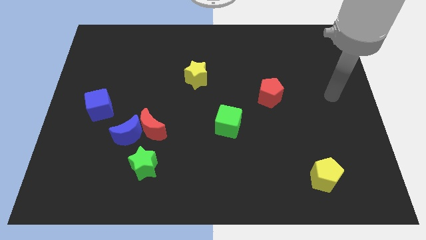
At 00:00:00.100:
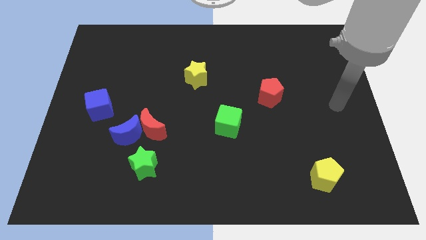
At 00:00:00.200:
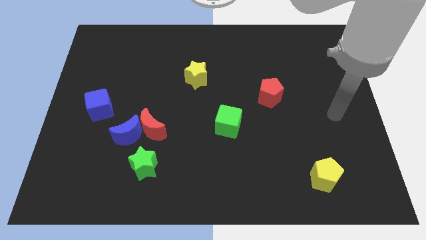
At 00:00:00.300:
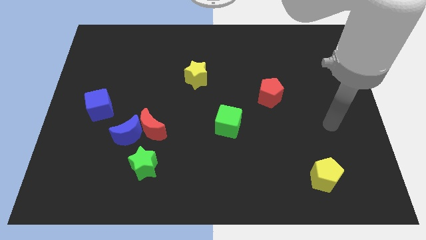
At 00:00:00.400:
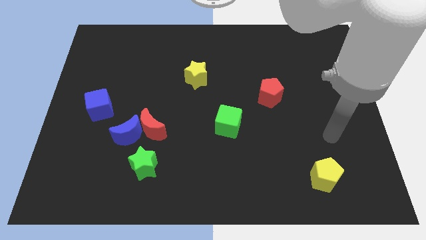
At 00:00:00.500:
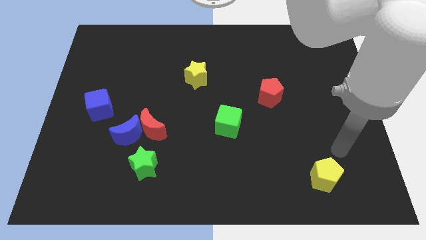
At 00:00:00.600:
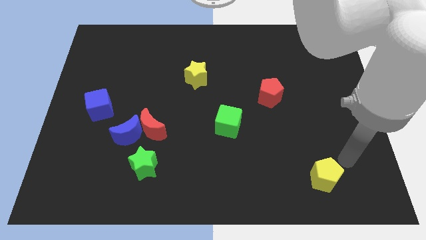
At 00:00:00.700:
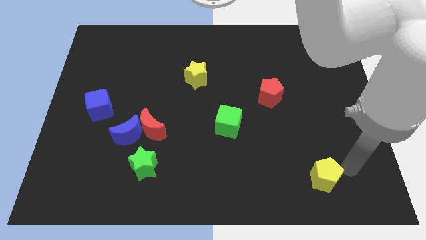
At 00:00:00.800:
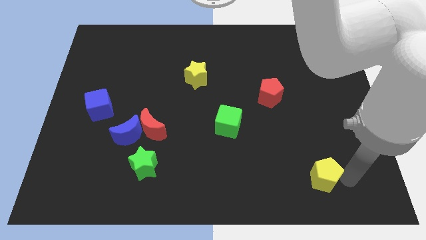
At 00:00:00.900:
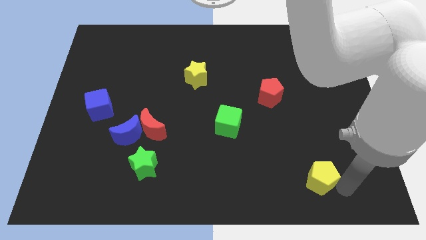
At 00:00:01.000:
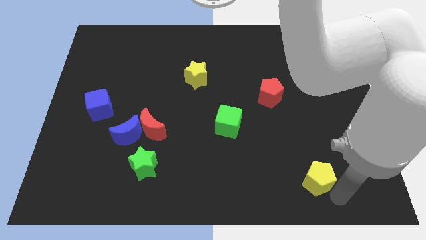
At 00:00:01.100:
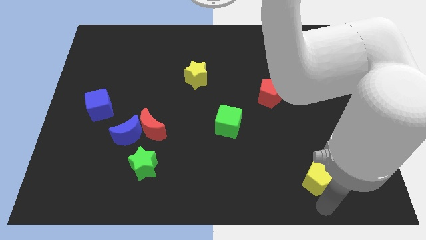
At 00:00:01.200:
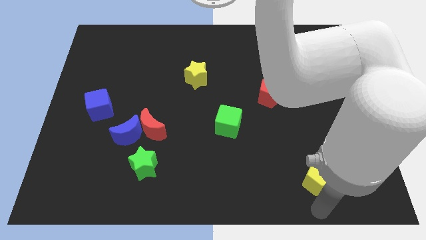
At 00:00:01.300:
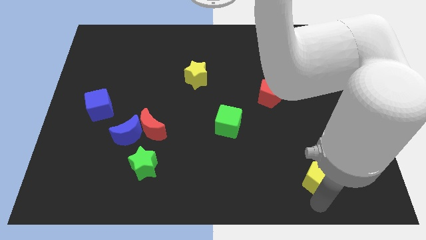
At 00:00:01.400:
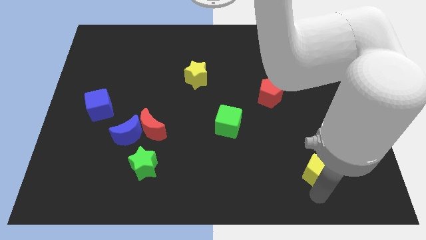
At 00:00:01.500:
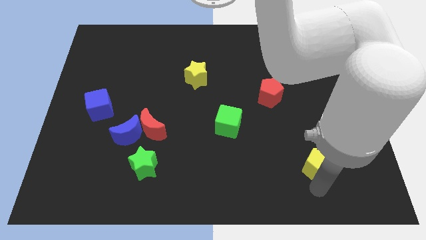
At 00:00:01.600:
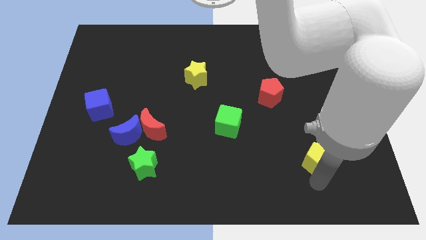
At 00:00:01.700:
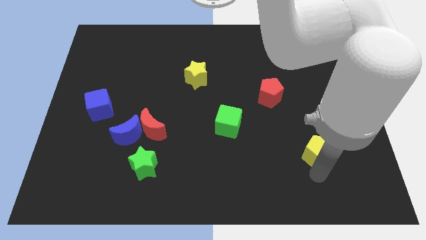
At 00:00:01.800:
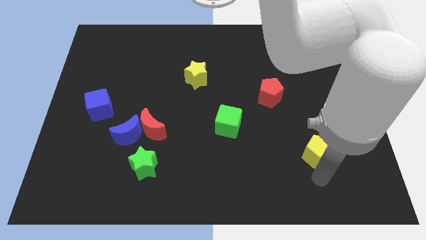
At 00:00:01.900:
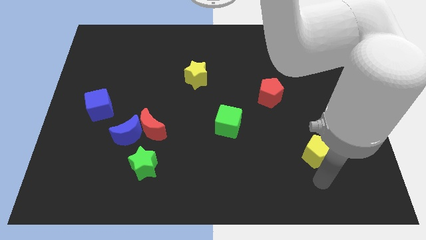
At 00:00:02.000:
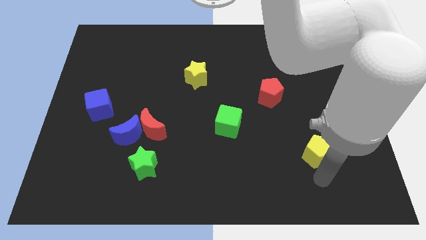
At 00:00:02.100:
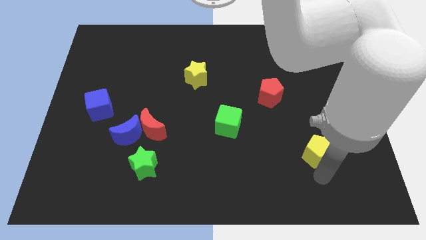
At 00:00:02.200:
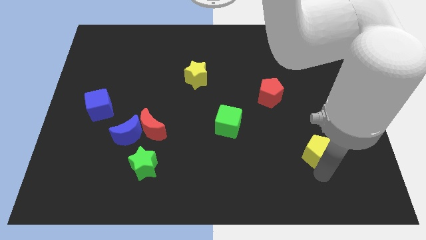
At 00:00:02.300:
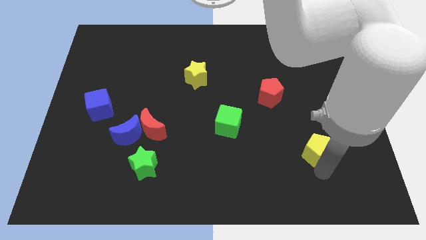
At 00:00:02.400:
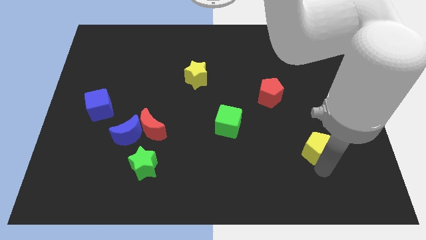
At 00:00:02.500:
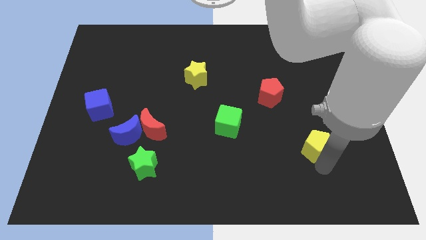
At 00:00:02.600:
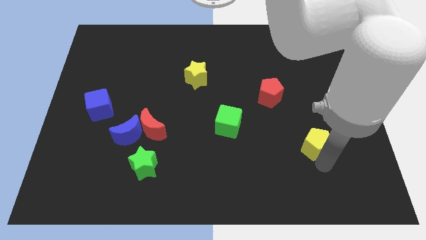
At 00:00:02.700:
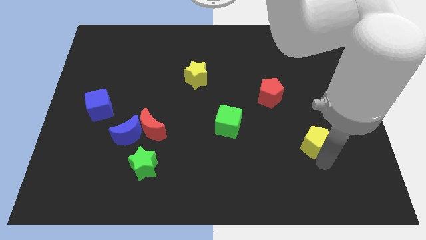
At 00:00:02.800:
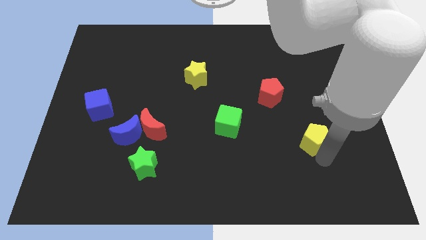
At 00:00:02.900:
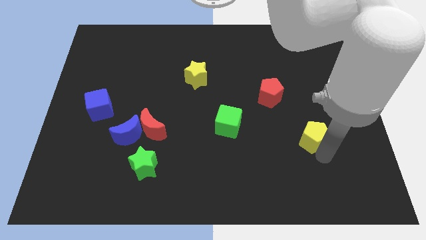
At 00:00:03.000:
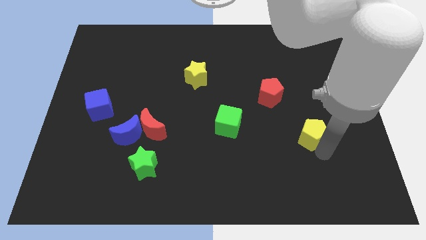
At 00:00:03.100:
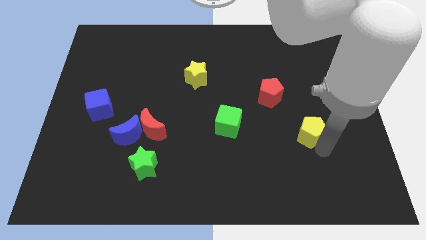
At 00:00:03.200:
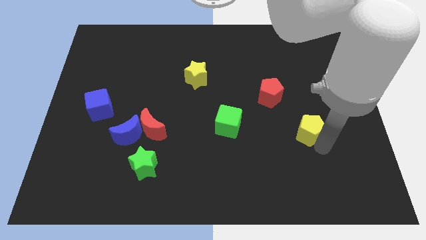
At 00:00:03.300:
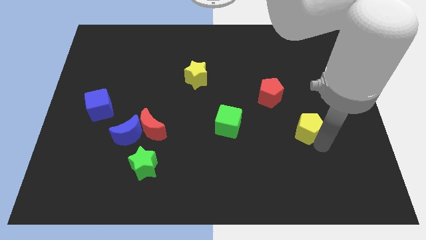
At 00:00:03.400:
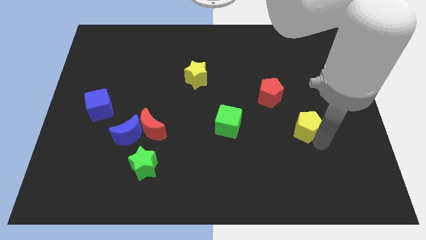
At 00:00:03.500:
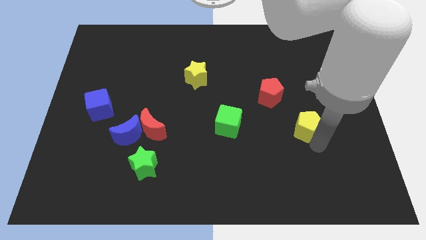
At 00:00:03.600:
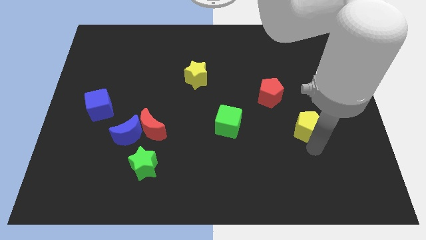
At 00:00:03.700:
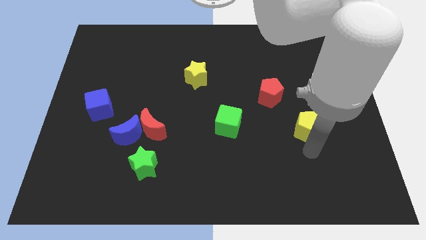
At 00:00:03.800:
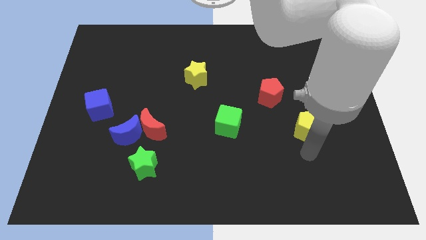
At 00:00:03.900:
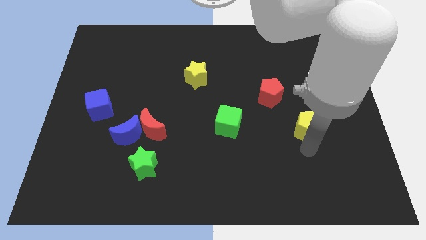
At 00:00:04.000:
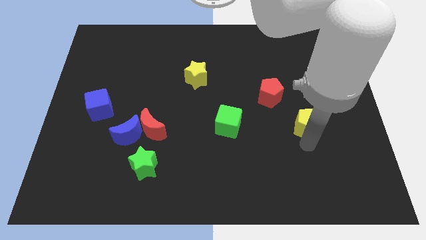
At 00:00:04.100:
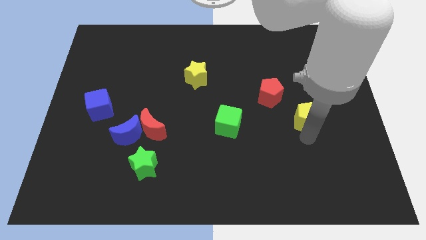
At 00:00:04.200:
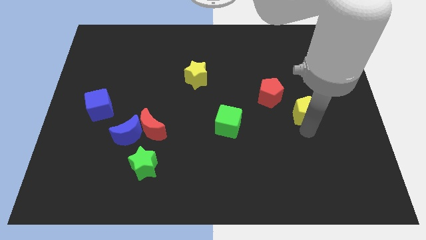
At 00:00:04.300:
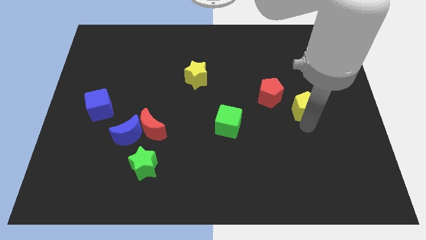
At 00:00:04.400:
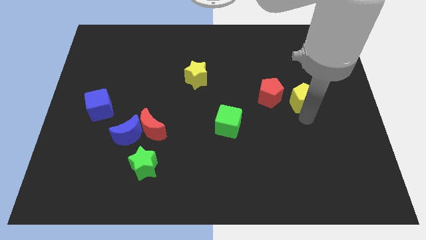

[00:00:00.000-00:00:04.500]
move the yellow pentagon up

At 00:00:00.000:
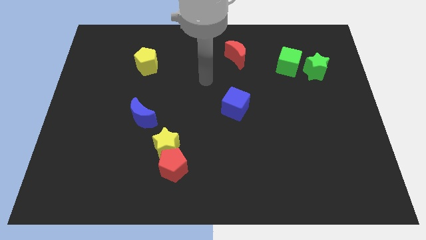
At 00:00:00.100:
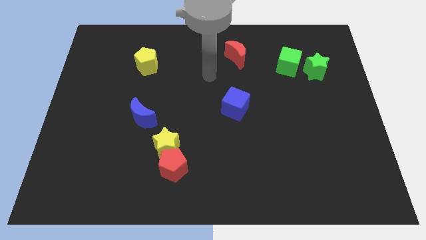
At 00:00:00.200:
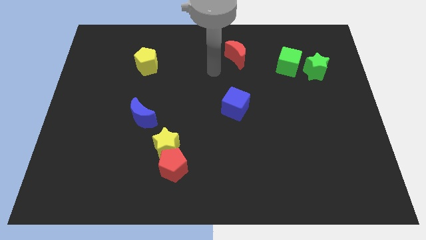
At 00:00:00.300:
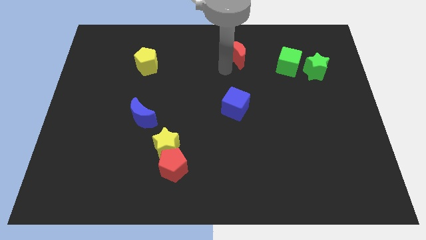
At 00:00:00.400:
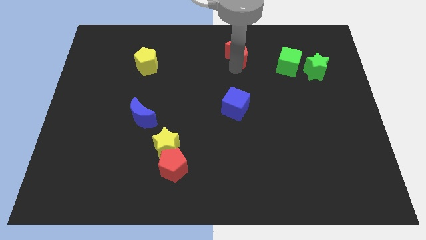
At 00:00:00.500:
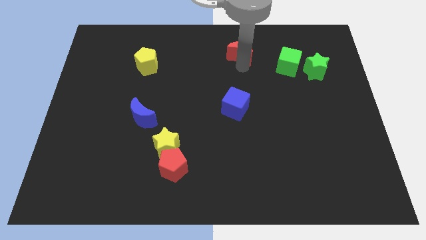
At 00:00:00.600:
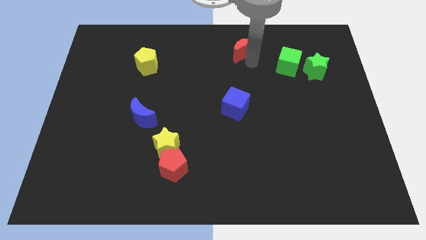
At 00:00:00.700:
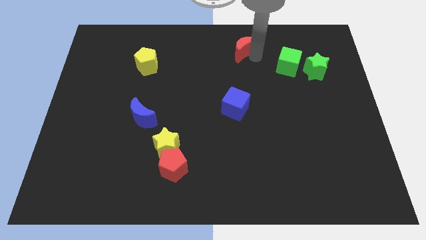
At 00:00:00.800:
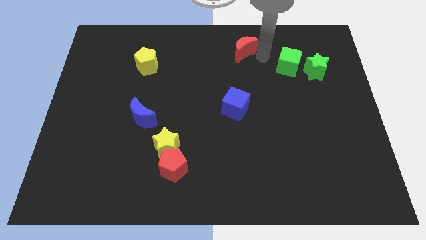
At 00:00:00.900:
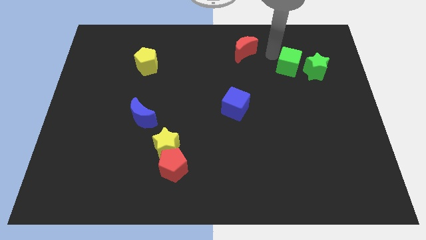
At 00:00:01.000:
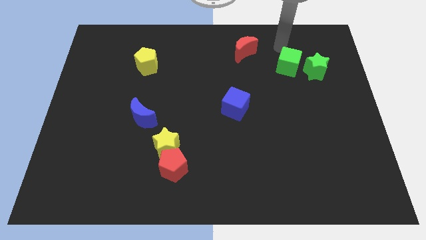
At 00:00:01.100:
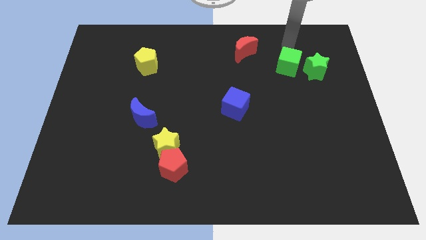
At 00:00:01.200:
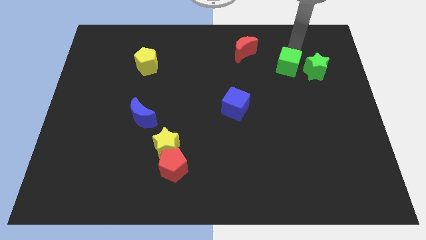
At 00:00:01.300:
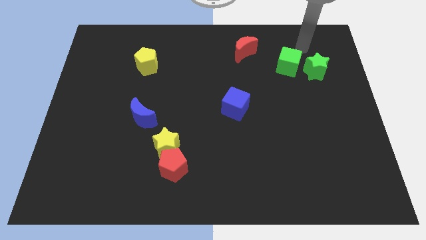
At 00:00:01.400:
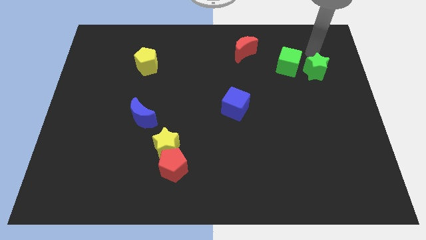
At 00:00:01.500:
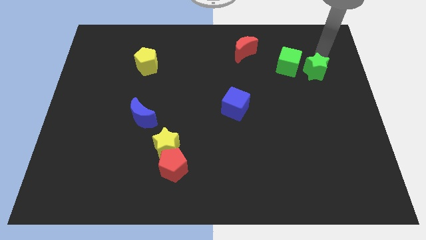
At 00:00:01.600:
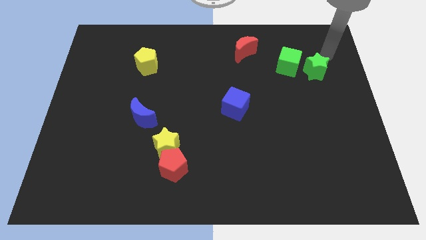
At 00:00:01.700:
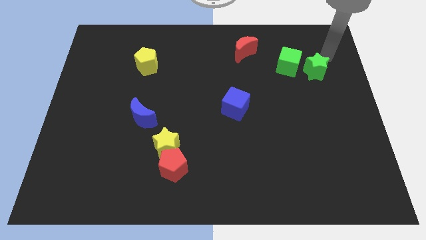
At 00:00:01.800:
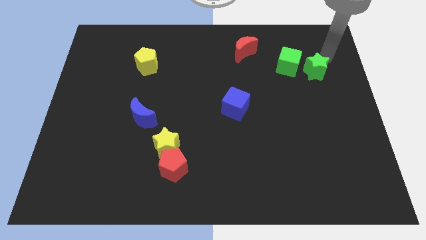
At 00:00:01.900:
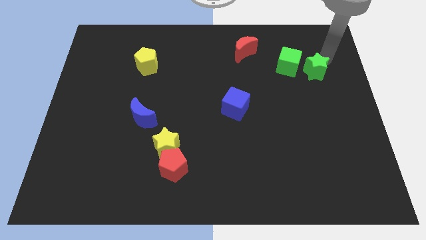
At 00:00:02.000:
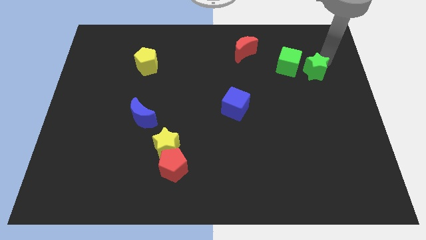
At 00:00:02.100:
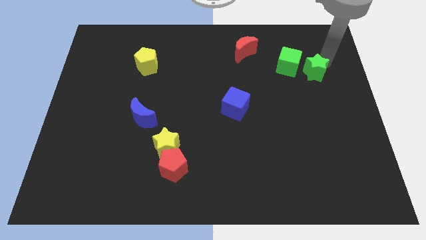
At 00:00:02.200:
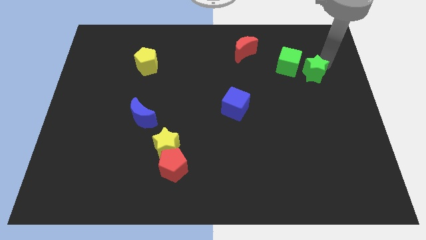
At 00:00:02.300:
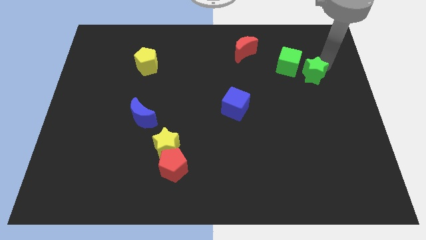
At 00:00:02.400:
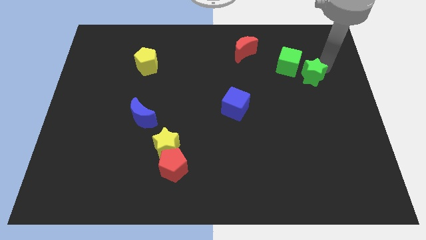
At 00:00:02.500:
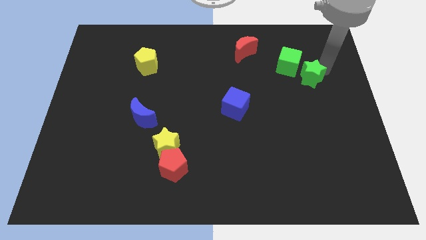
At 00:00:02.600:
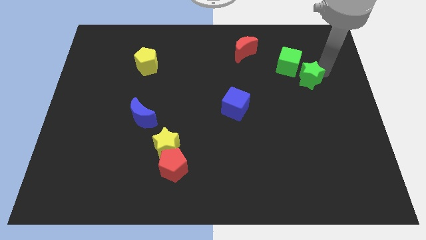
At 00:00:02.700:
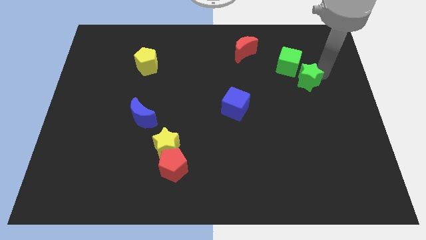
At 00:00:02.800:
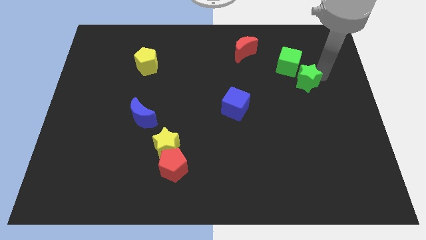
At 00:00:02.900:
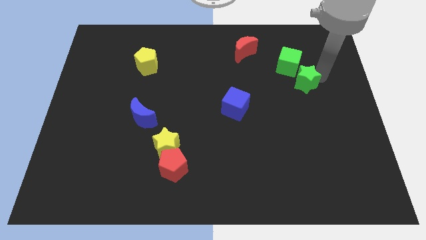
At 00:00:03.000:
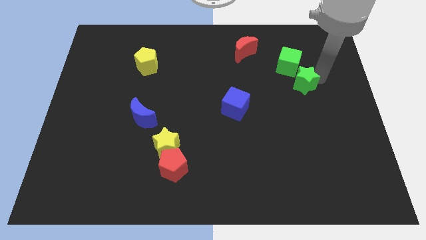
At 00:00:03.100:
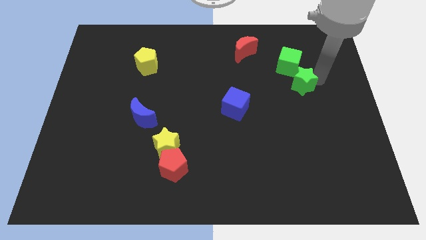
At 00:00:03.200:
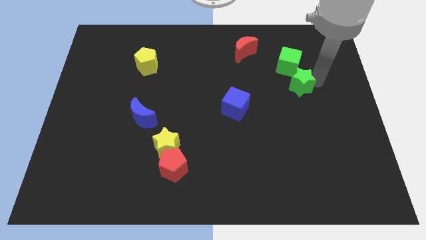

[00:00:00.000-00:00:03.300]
move the green star down and to the left slightly
